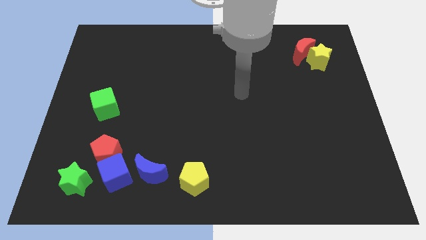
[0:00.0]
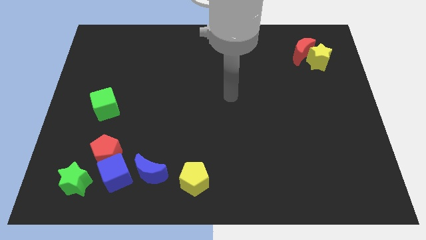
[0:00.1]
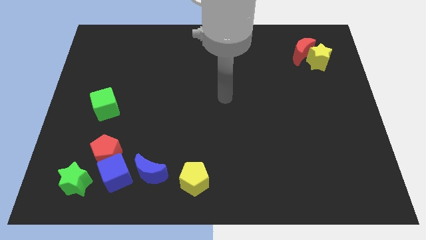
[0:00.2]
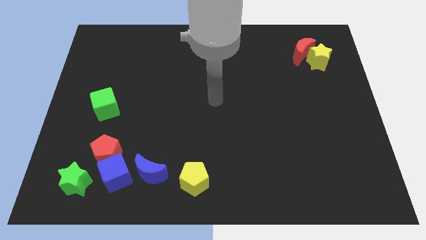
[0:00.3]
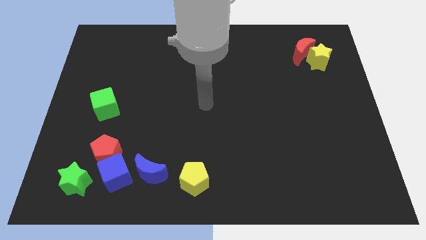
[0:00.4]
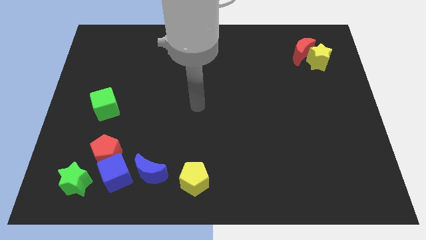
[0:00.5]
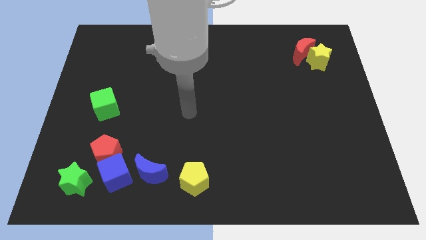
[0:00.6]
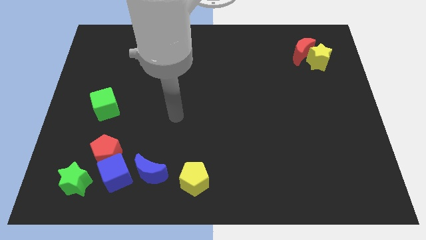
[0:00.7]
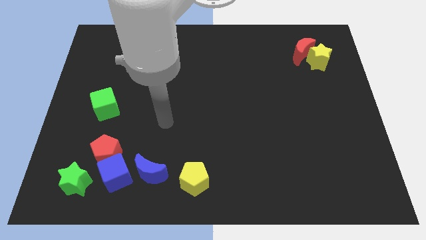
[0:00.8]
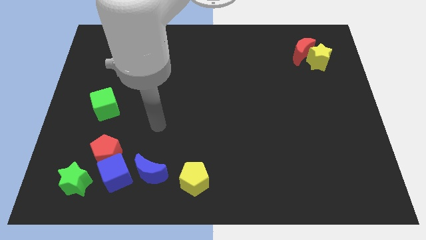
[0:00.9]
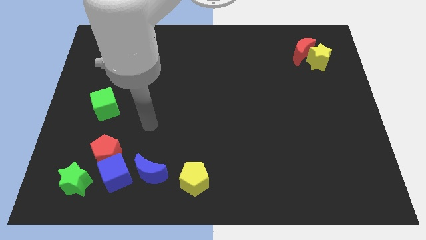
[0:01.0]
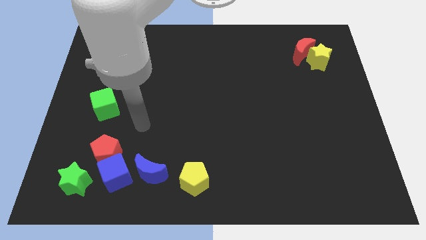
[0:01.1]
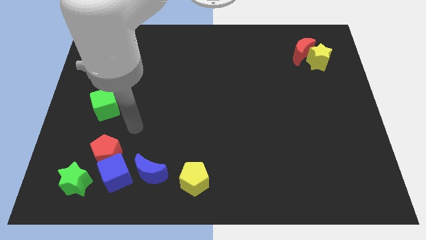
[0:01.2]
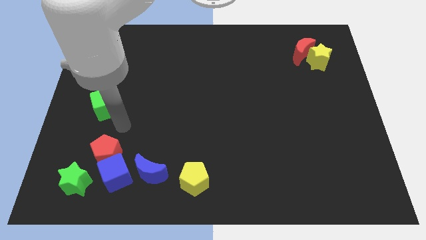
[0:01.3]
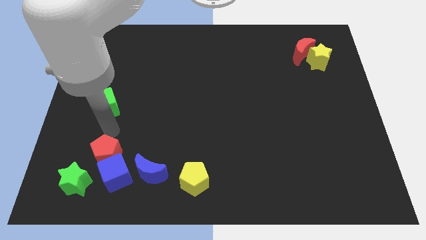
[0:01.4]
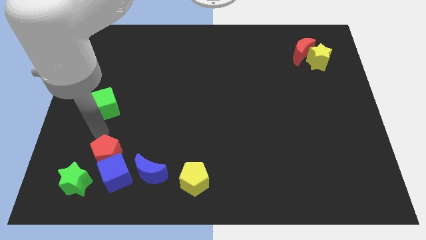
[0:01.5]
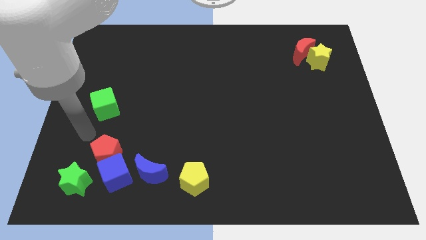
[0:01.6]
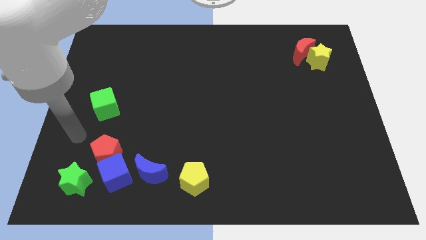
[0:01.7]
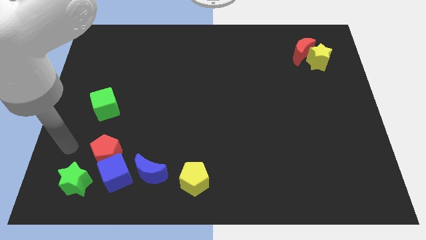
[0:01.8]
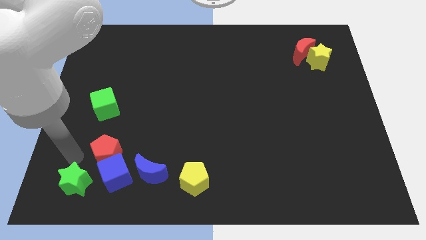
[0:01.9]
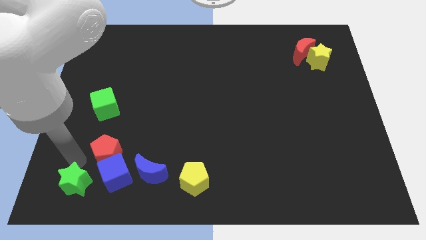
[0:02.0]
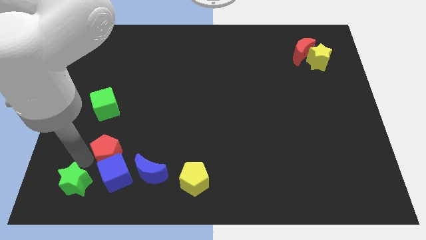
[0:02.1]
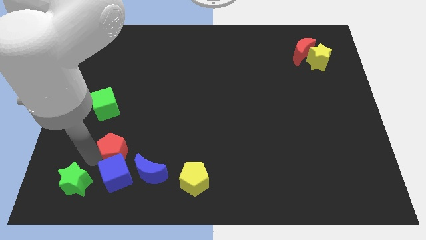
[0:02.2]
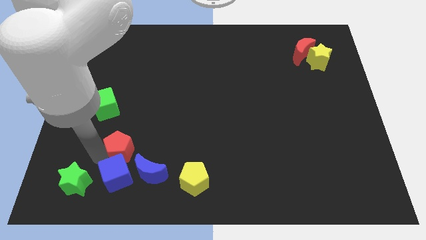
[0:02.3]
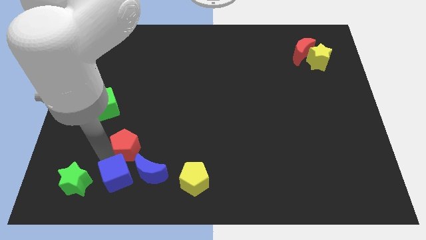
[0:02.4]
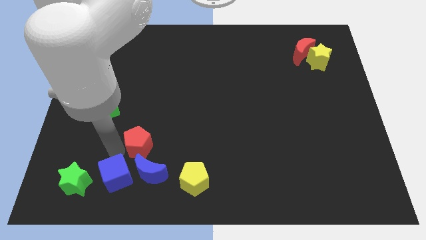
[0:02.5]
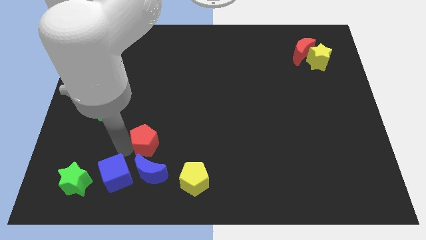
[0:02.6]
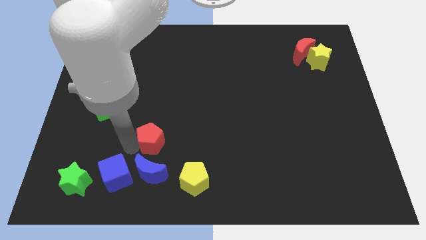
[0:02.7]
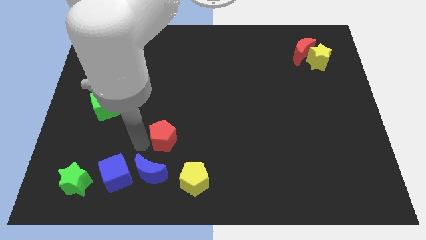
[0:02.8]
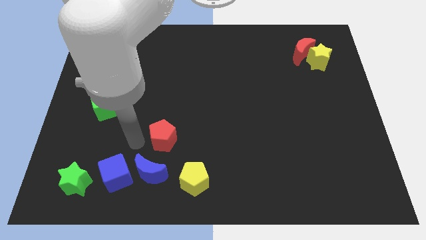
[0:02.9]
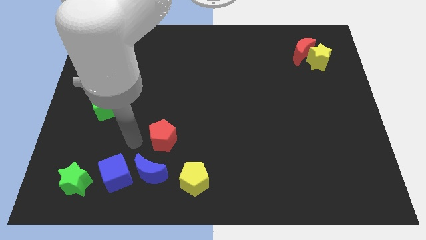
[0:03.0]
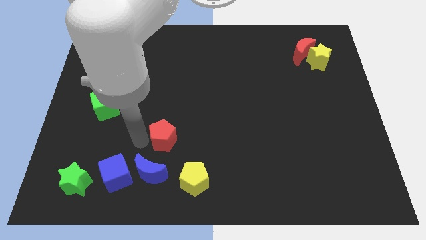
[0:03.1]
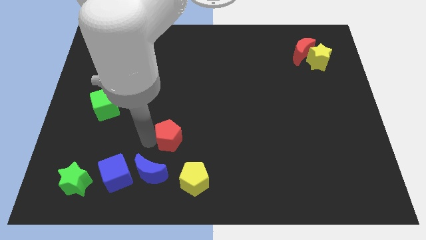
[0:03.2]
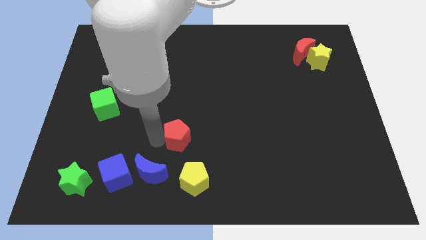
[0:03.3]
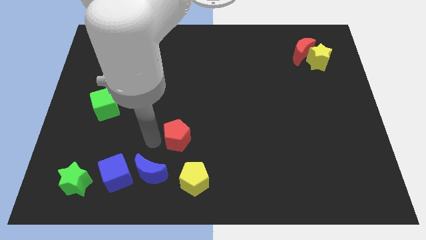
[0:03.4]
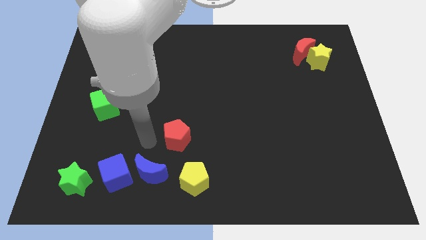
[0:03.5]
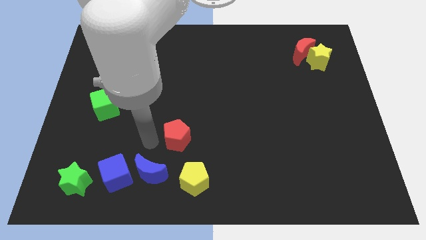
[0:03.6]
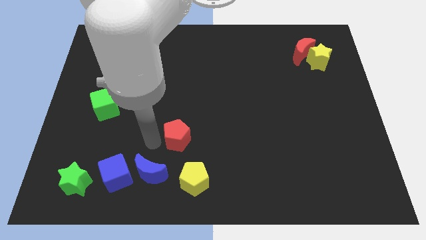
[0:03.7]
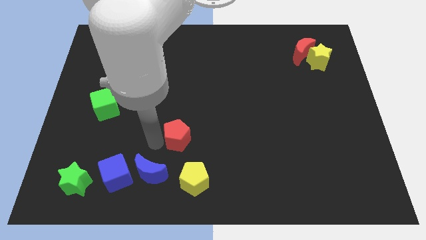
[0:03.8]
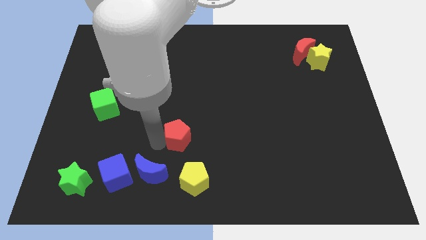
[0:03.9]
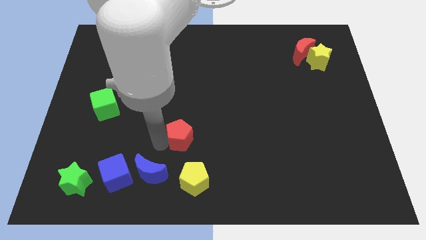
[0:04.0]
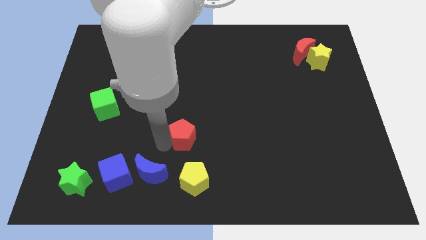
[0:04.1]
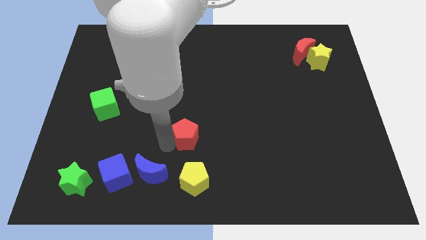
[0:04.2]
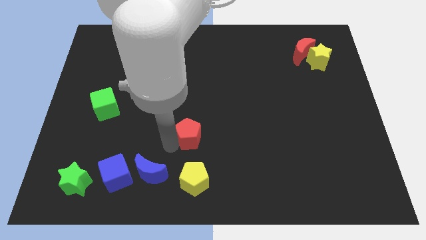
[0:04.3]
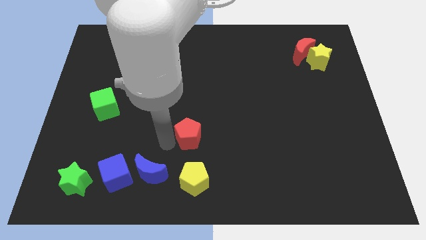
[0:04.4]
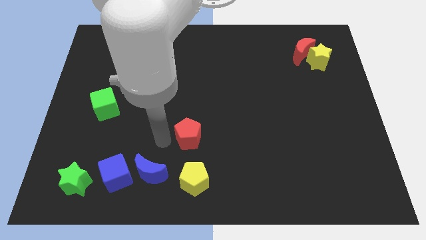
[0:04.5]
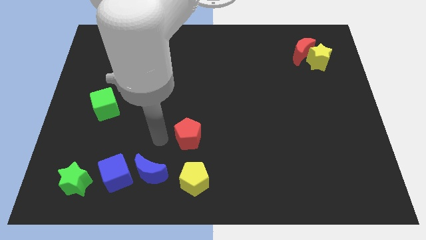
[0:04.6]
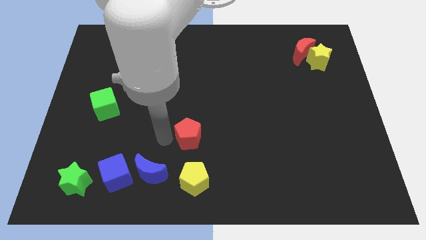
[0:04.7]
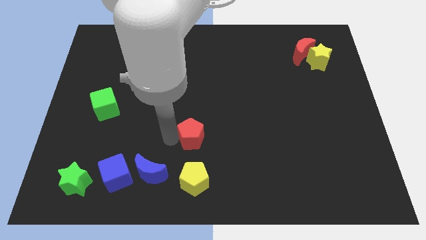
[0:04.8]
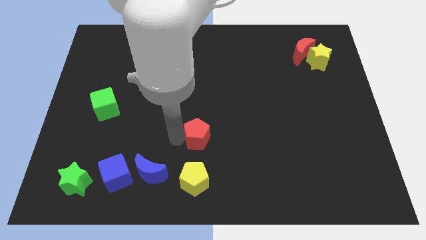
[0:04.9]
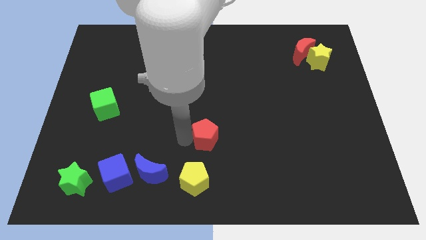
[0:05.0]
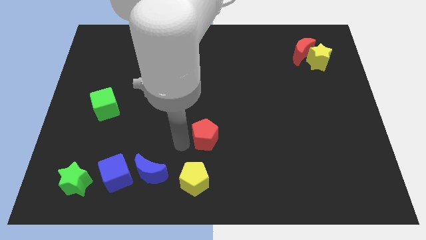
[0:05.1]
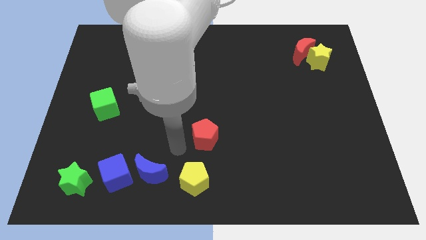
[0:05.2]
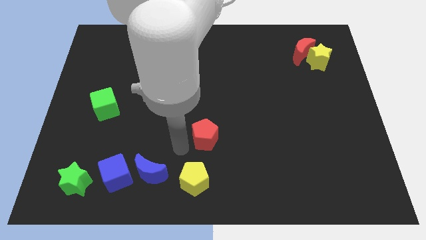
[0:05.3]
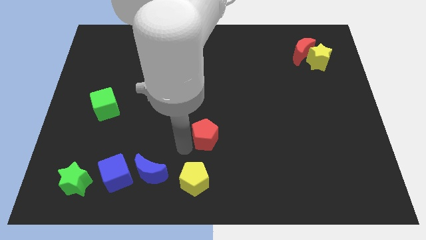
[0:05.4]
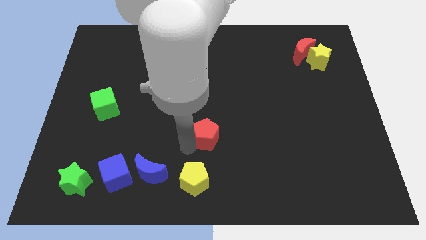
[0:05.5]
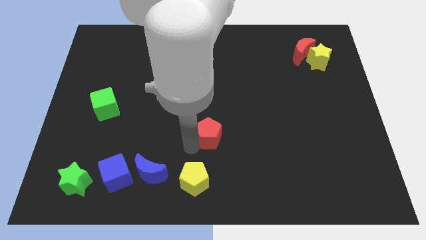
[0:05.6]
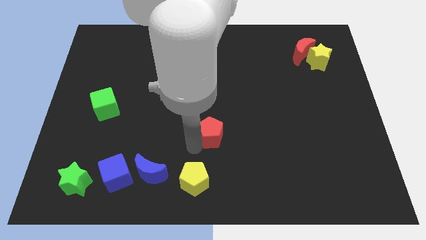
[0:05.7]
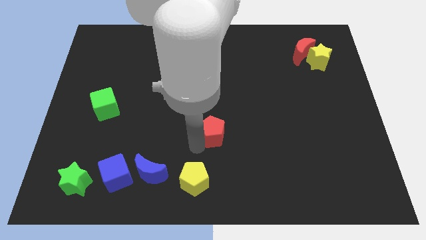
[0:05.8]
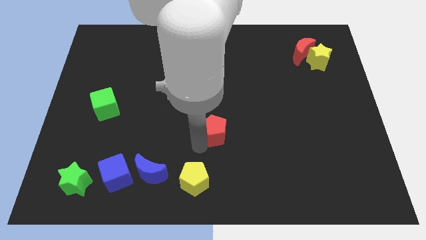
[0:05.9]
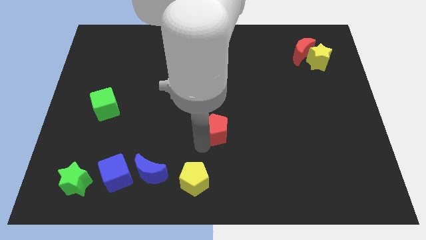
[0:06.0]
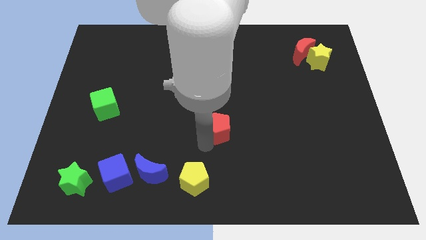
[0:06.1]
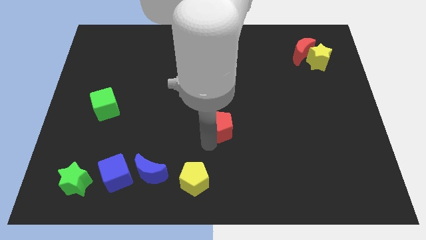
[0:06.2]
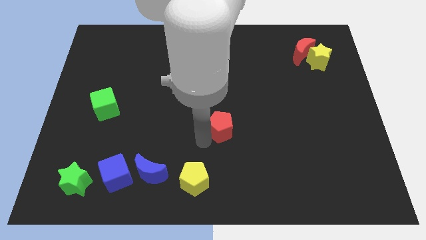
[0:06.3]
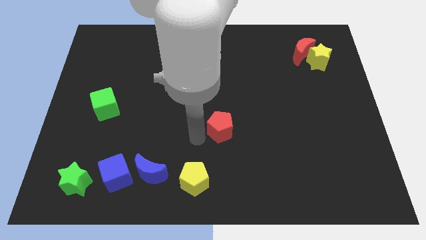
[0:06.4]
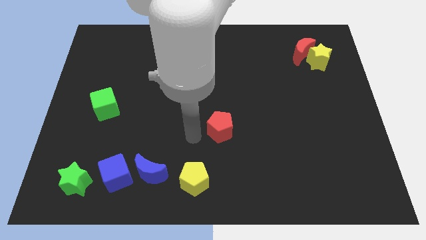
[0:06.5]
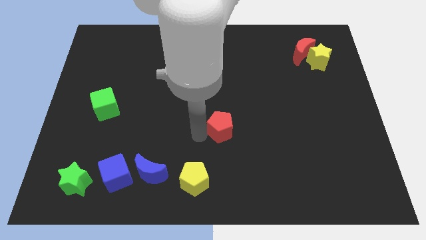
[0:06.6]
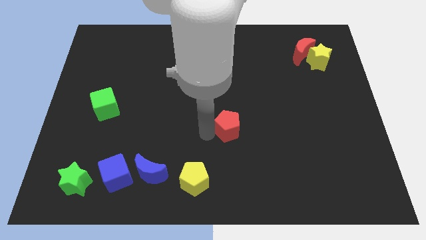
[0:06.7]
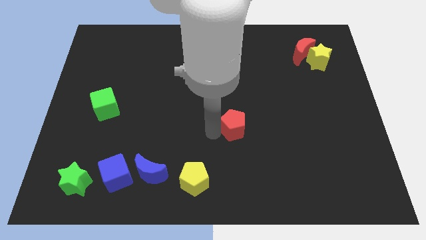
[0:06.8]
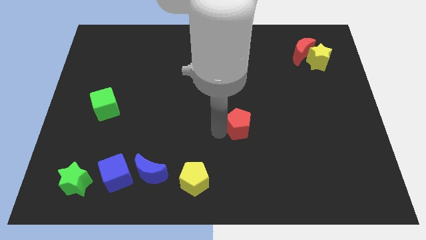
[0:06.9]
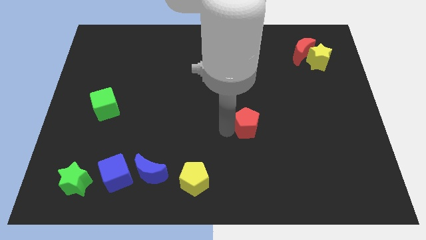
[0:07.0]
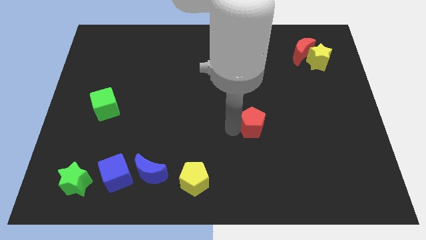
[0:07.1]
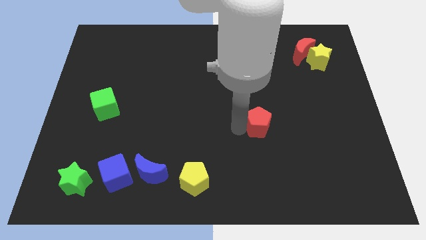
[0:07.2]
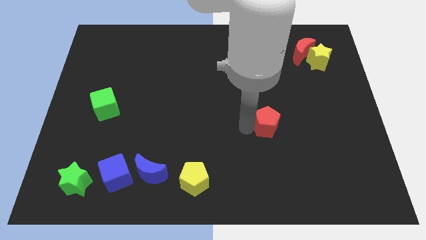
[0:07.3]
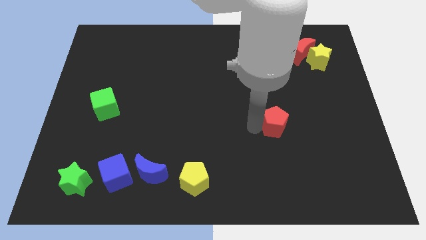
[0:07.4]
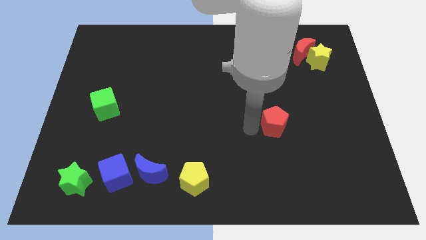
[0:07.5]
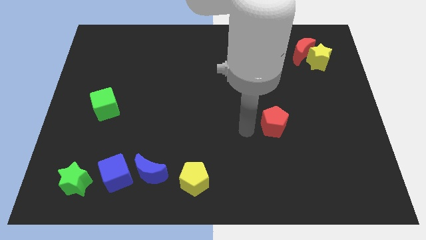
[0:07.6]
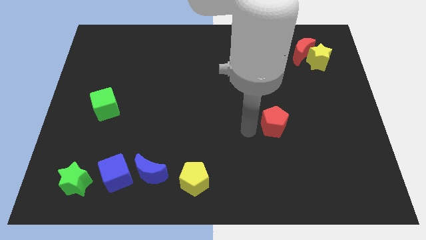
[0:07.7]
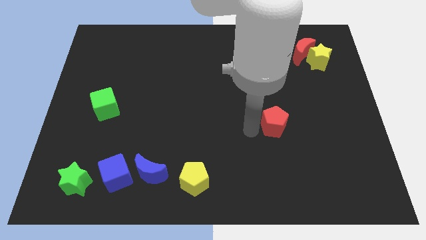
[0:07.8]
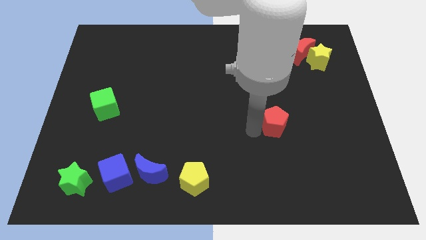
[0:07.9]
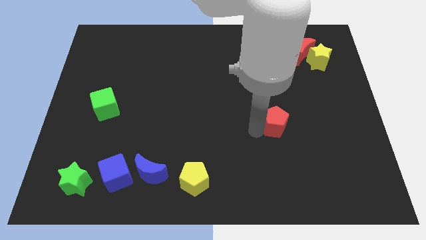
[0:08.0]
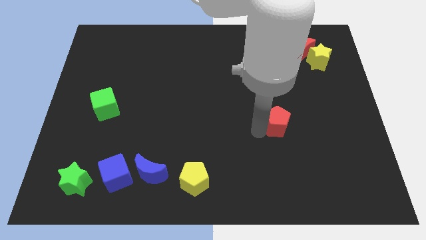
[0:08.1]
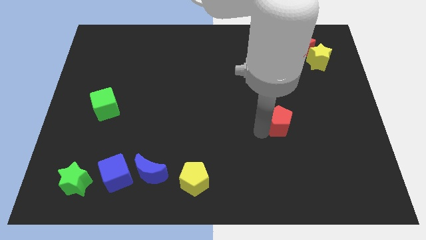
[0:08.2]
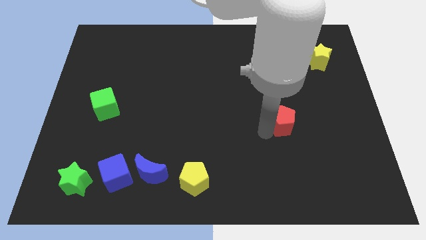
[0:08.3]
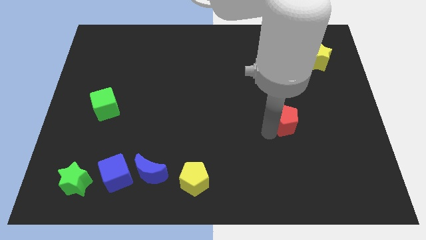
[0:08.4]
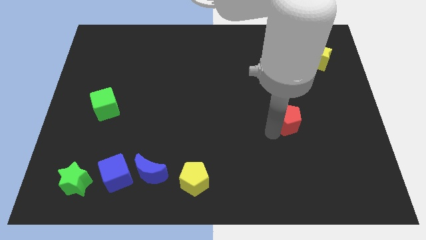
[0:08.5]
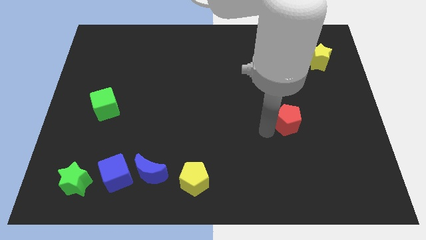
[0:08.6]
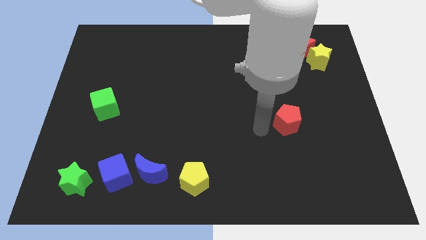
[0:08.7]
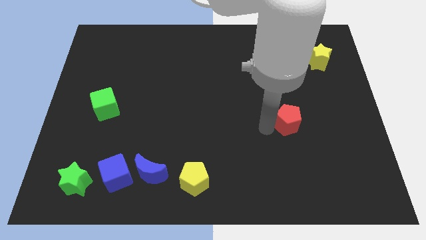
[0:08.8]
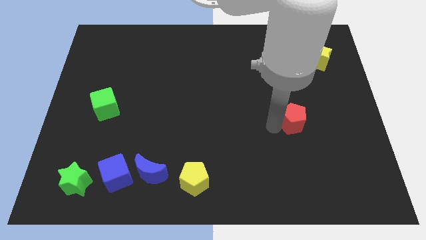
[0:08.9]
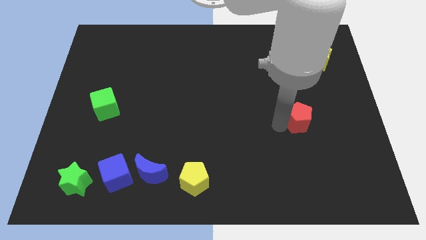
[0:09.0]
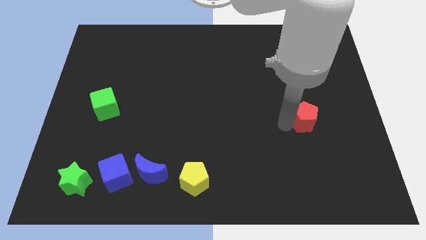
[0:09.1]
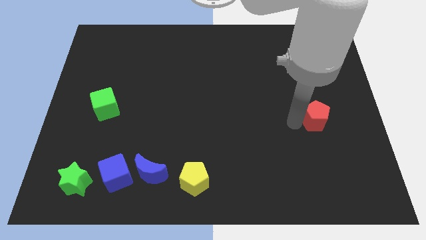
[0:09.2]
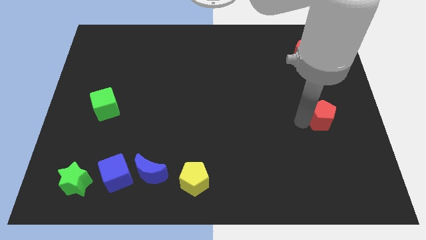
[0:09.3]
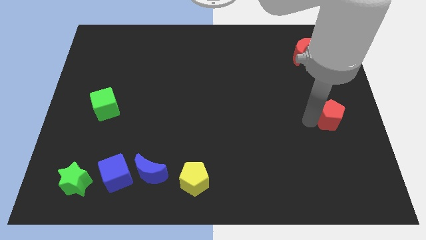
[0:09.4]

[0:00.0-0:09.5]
push the red pentagon to the center right
